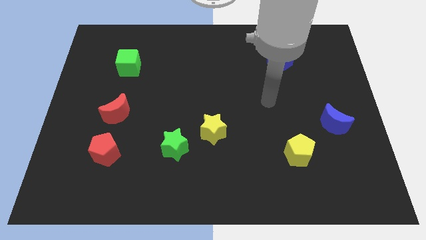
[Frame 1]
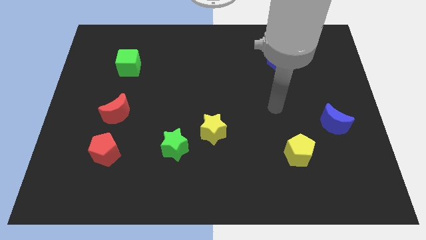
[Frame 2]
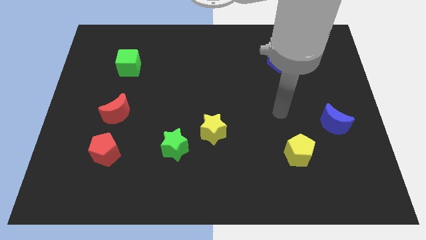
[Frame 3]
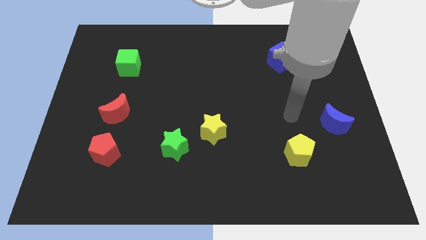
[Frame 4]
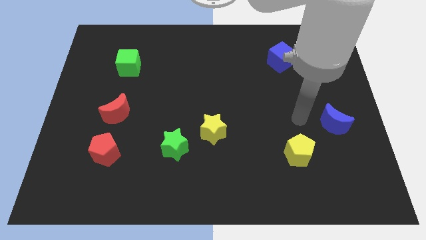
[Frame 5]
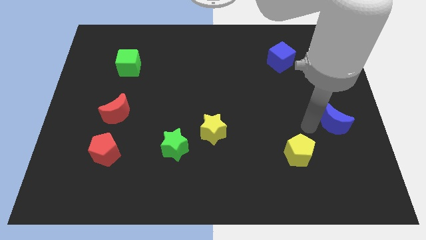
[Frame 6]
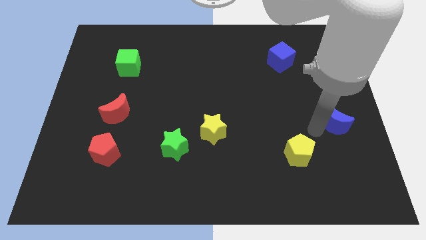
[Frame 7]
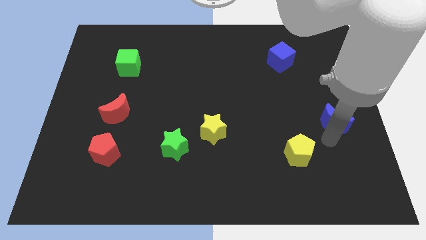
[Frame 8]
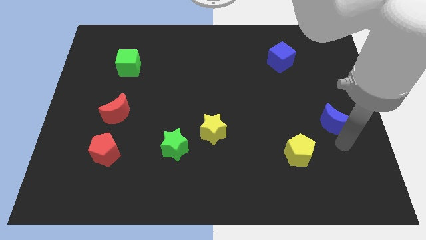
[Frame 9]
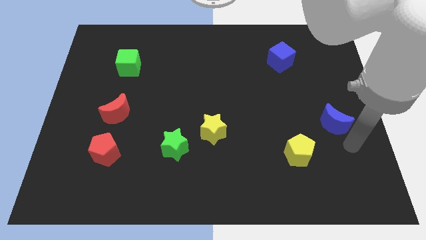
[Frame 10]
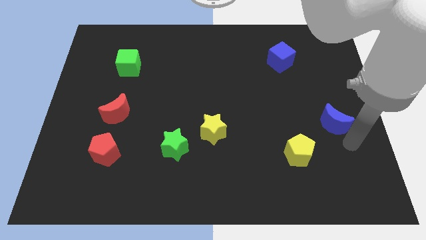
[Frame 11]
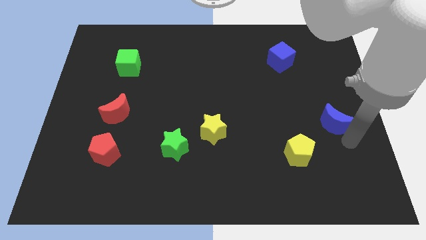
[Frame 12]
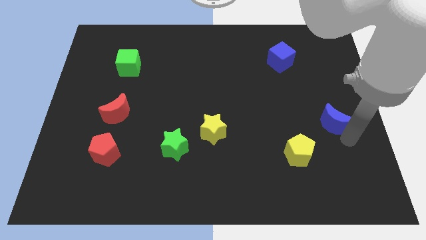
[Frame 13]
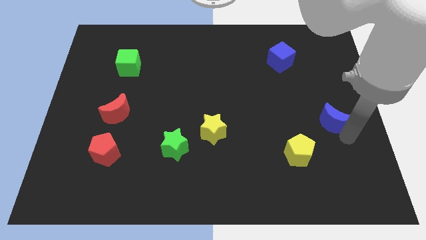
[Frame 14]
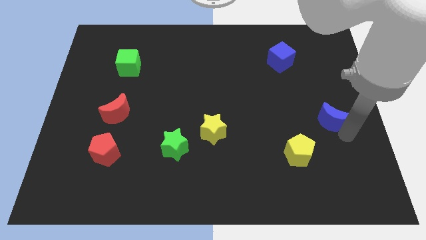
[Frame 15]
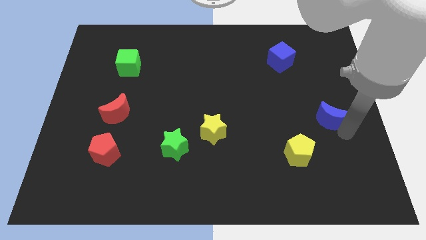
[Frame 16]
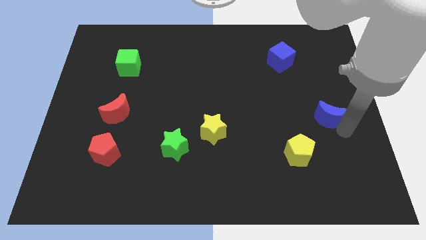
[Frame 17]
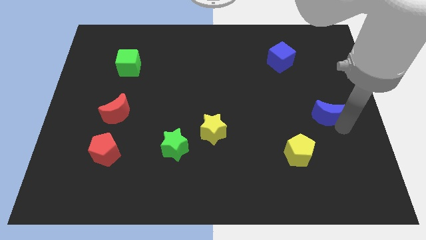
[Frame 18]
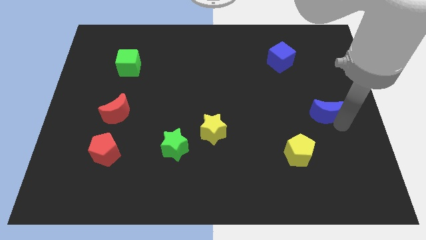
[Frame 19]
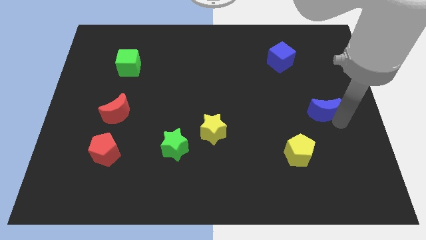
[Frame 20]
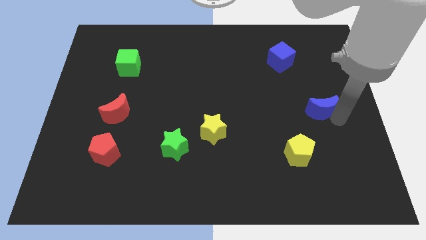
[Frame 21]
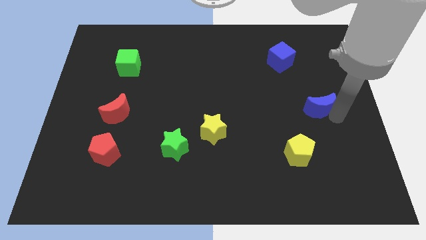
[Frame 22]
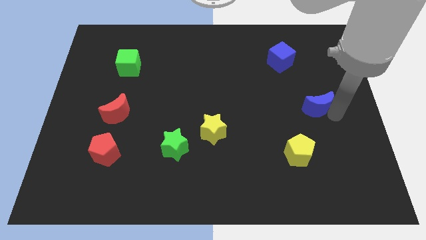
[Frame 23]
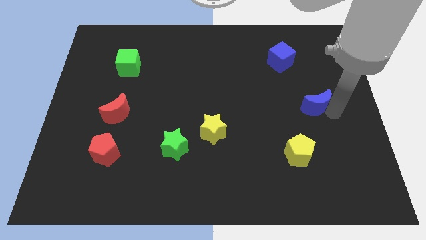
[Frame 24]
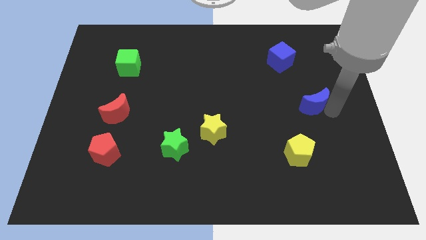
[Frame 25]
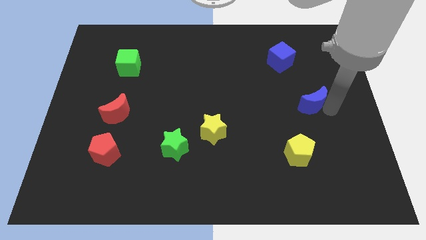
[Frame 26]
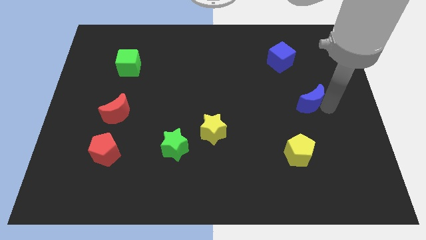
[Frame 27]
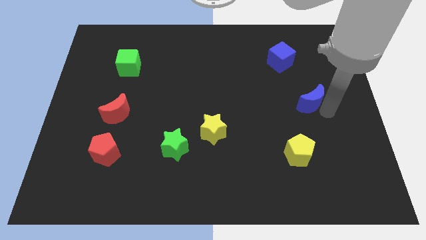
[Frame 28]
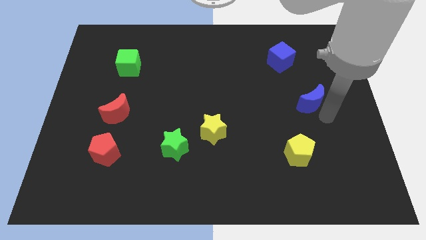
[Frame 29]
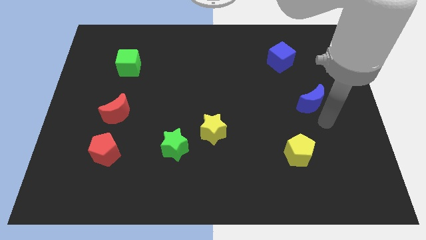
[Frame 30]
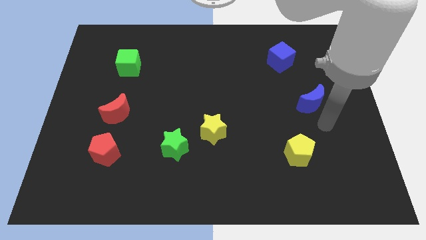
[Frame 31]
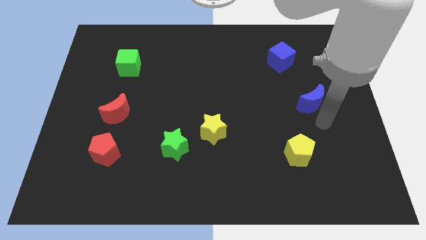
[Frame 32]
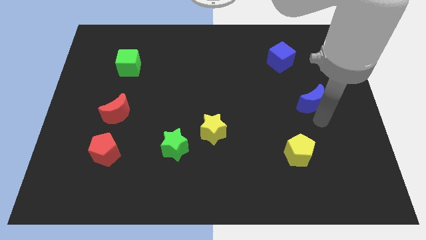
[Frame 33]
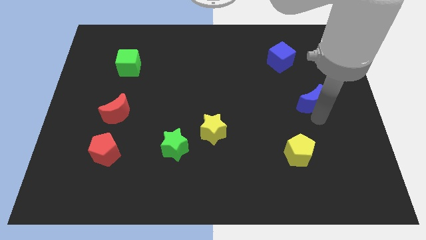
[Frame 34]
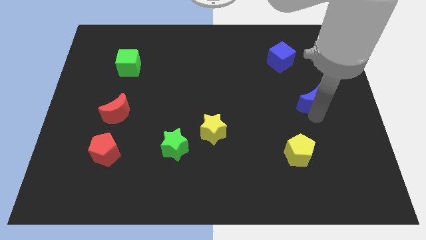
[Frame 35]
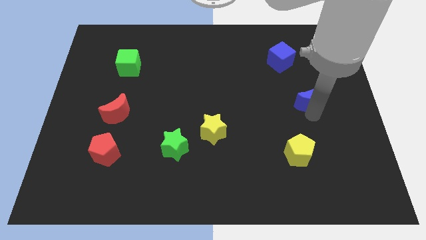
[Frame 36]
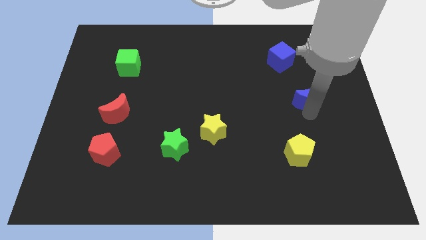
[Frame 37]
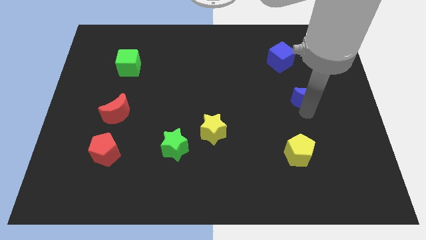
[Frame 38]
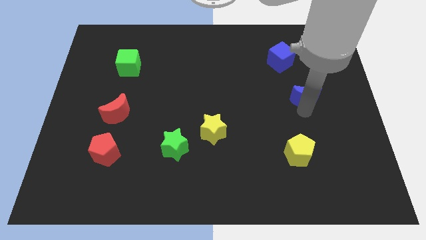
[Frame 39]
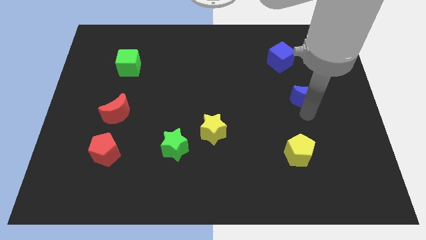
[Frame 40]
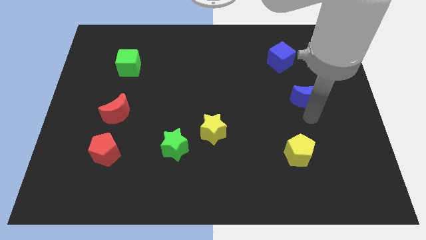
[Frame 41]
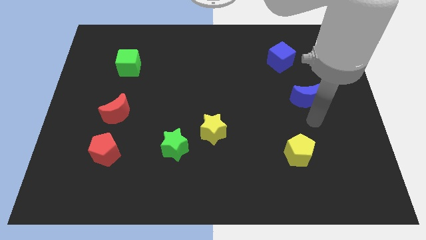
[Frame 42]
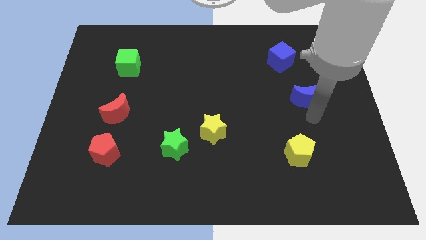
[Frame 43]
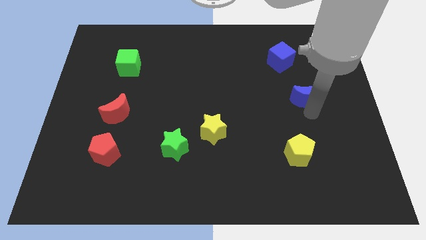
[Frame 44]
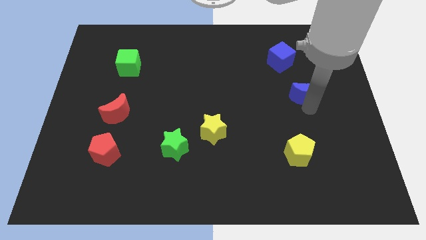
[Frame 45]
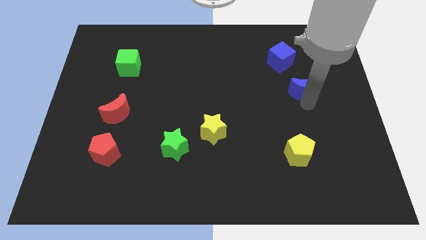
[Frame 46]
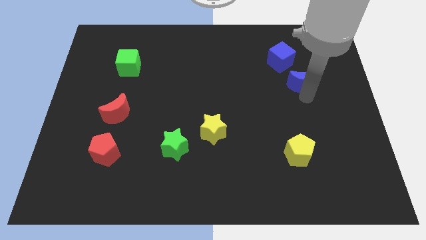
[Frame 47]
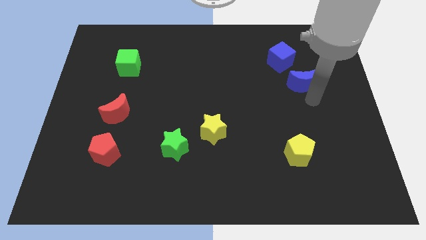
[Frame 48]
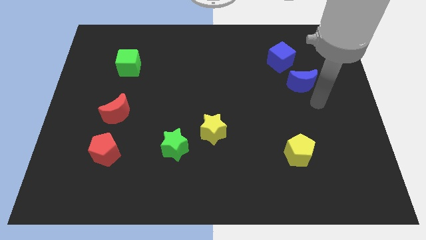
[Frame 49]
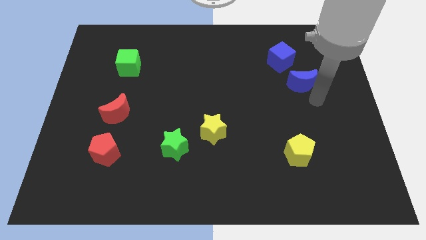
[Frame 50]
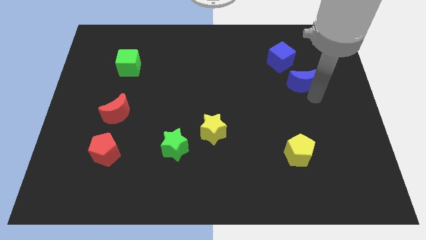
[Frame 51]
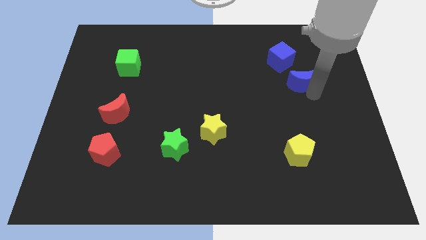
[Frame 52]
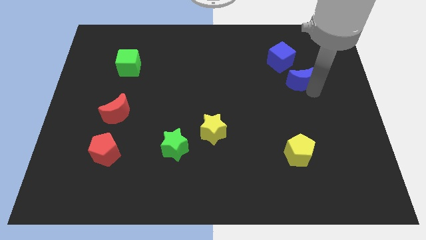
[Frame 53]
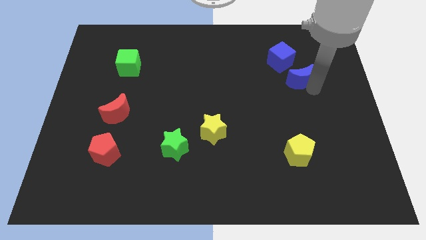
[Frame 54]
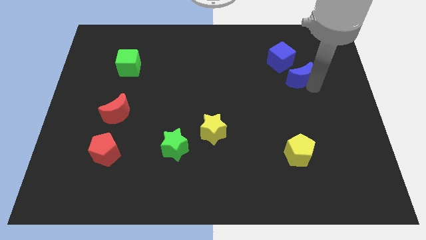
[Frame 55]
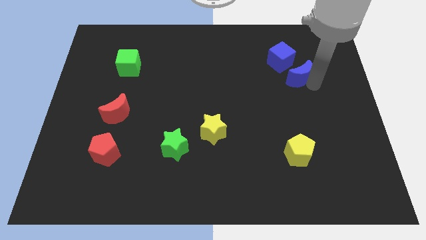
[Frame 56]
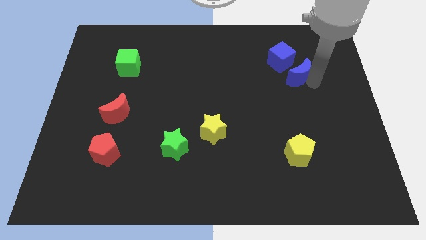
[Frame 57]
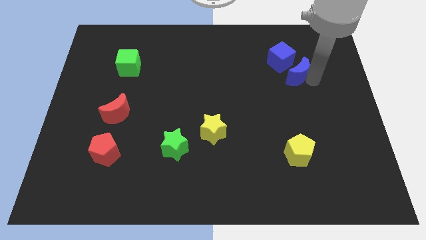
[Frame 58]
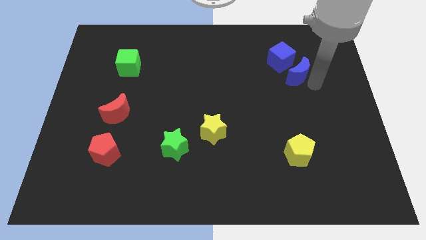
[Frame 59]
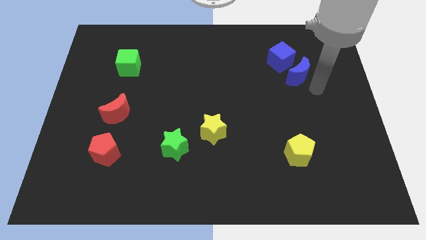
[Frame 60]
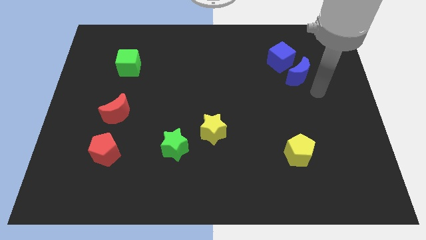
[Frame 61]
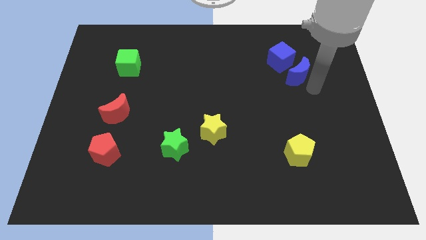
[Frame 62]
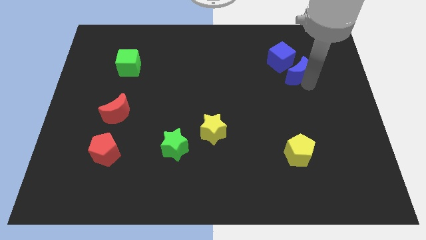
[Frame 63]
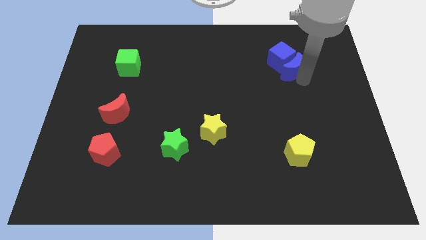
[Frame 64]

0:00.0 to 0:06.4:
slide the blue moon to the blue cube

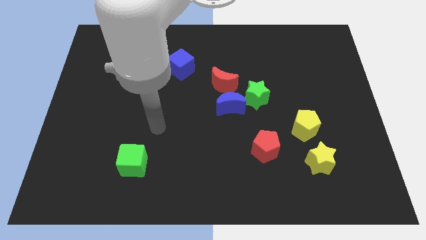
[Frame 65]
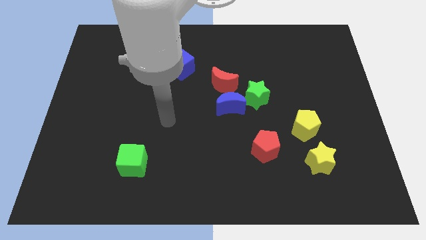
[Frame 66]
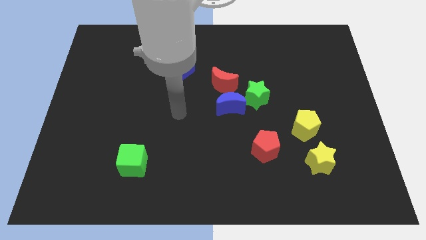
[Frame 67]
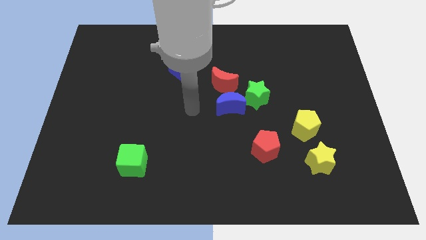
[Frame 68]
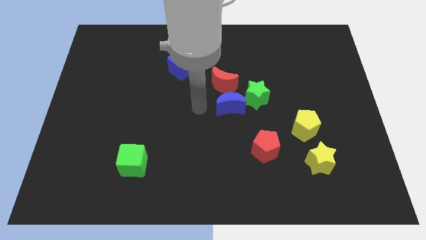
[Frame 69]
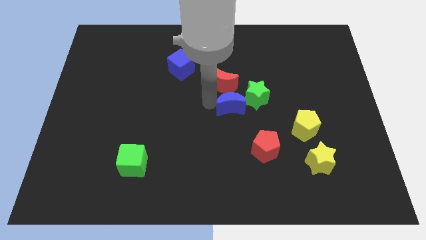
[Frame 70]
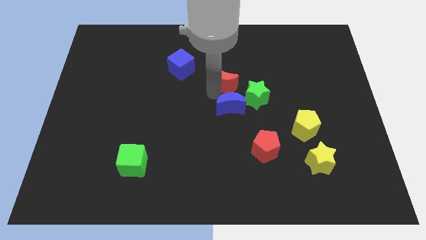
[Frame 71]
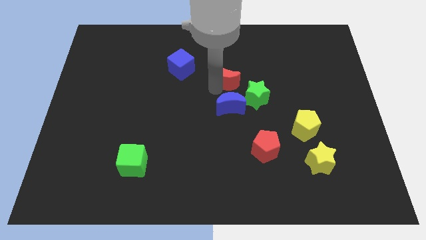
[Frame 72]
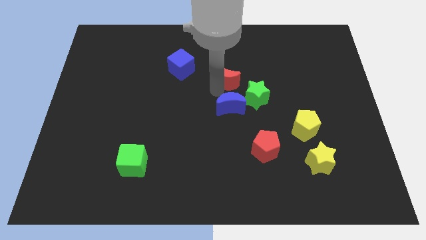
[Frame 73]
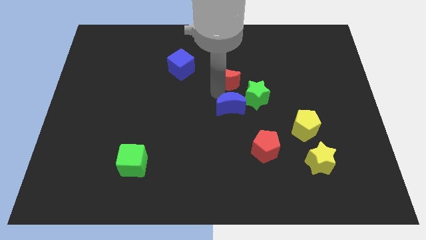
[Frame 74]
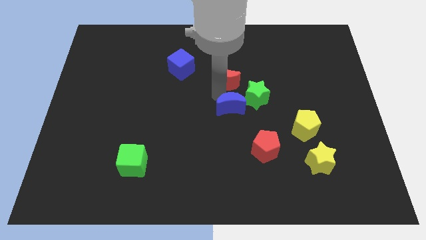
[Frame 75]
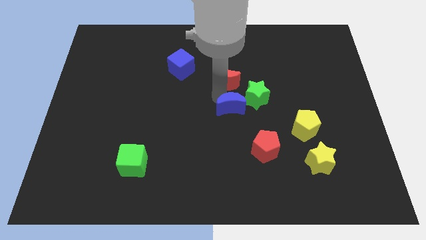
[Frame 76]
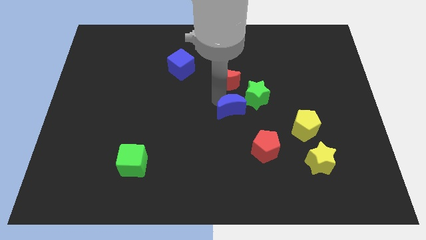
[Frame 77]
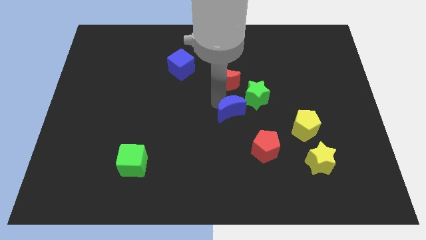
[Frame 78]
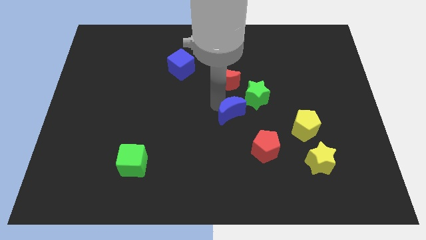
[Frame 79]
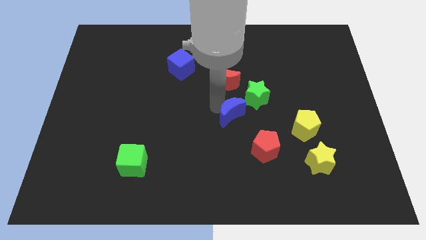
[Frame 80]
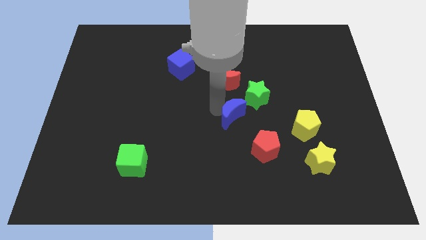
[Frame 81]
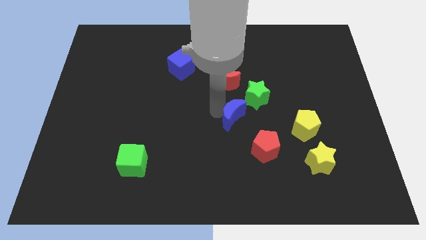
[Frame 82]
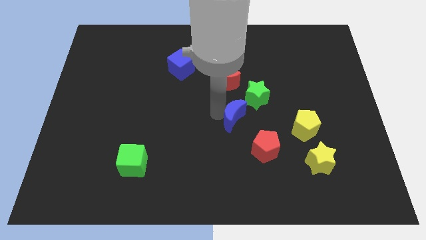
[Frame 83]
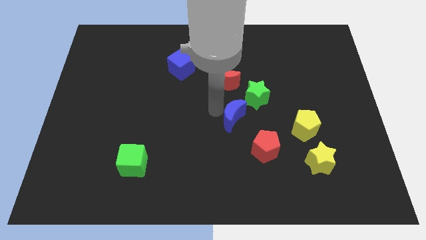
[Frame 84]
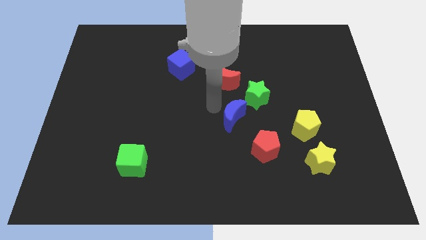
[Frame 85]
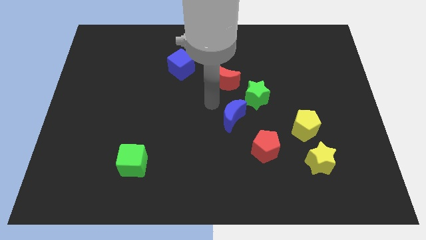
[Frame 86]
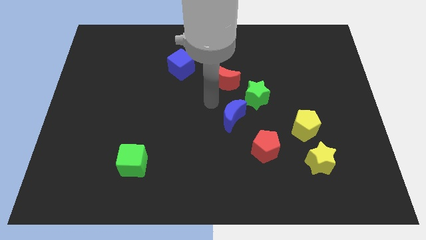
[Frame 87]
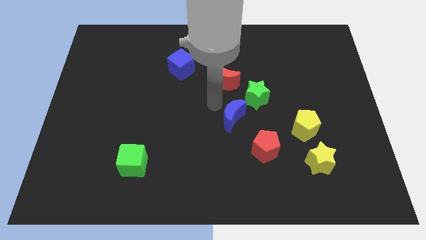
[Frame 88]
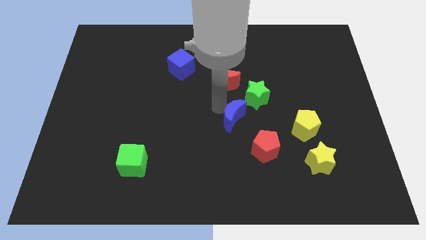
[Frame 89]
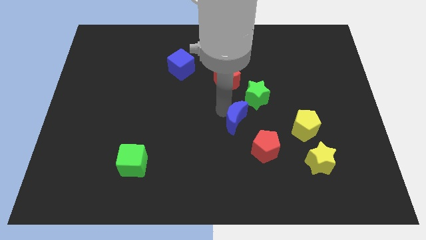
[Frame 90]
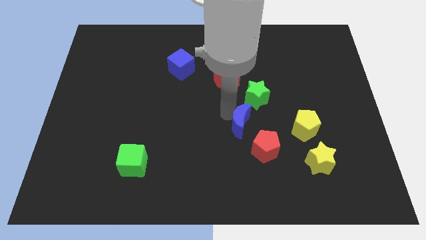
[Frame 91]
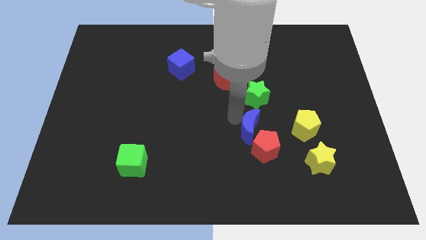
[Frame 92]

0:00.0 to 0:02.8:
put the blue moon close to the red pentagon
